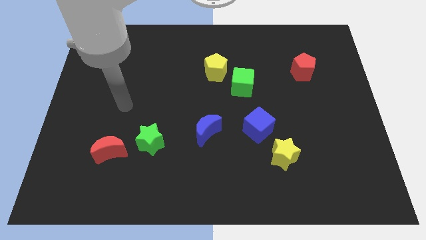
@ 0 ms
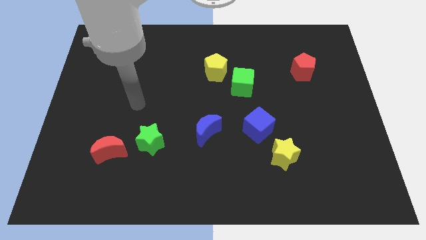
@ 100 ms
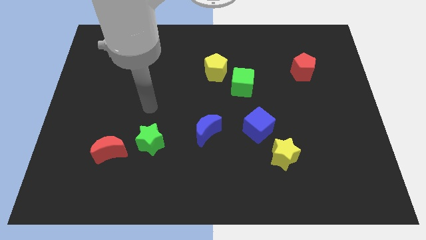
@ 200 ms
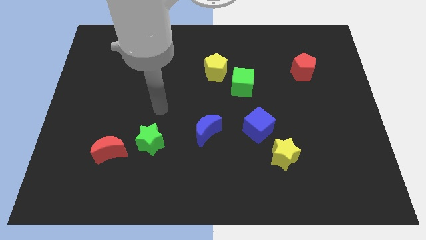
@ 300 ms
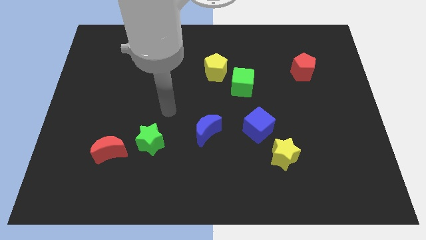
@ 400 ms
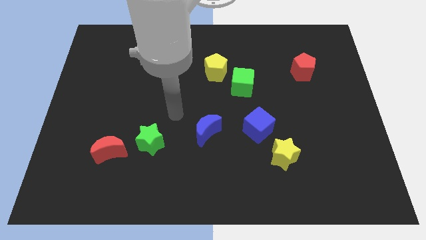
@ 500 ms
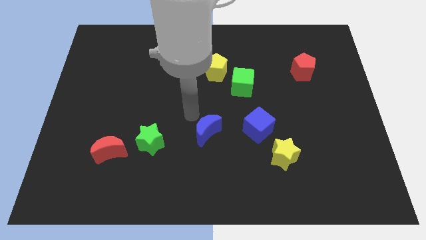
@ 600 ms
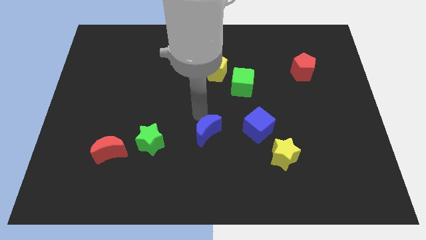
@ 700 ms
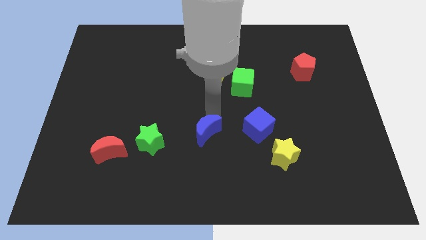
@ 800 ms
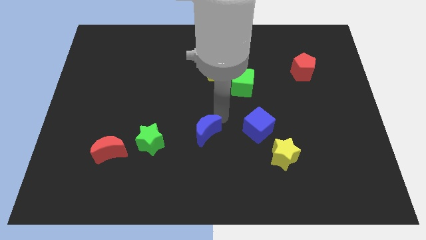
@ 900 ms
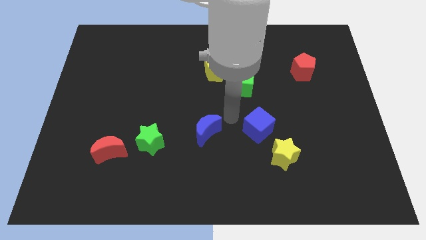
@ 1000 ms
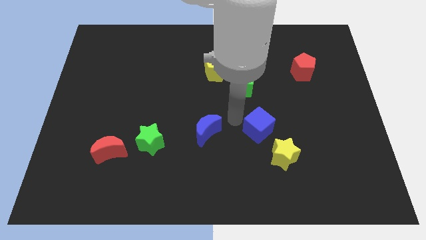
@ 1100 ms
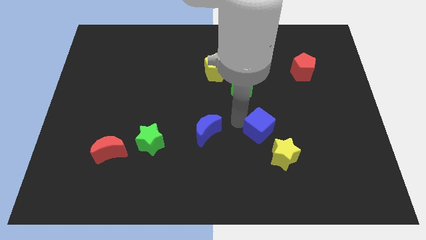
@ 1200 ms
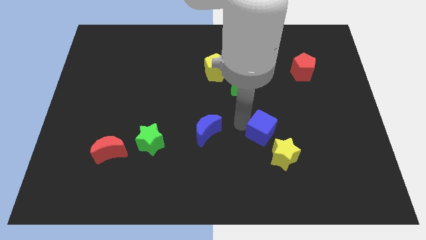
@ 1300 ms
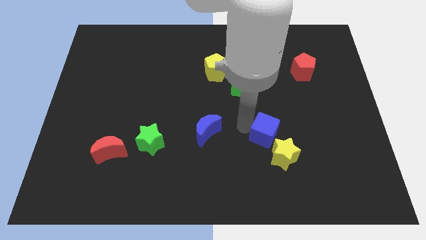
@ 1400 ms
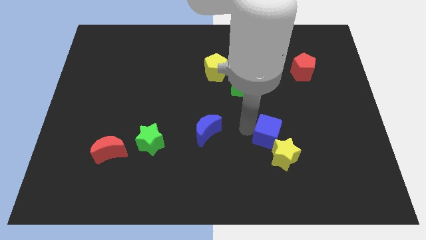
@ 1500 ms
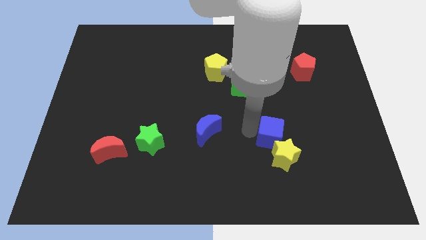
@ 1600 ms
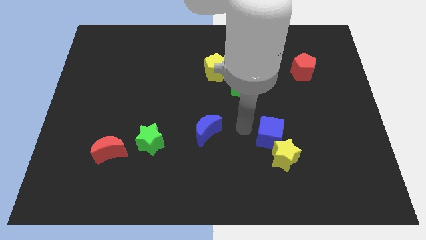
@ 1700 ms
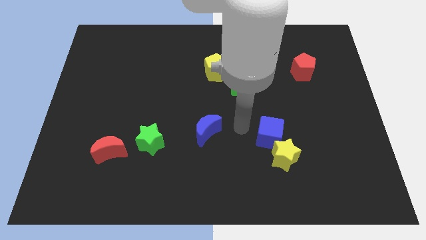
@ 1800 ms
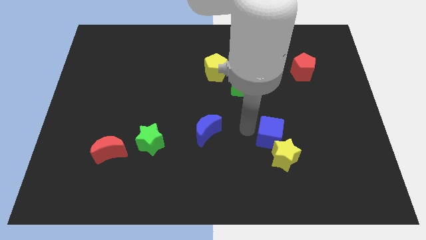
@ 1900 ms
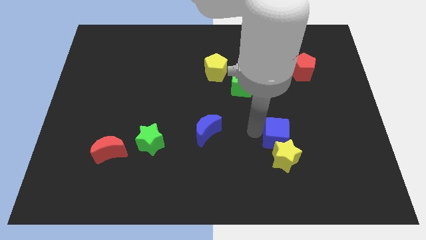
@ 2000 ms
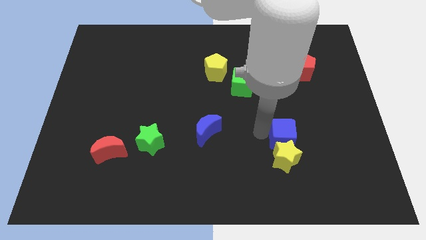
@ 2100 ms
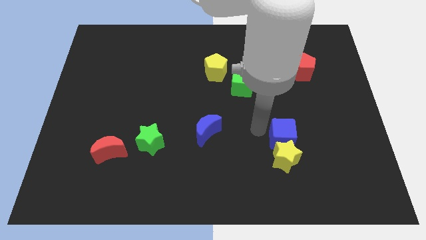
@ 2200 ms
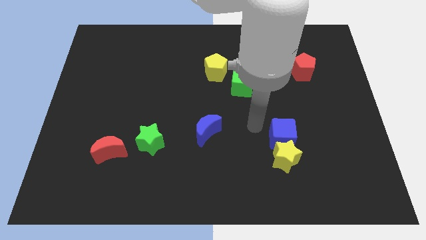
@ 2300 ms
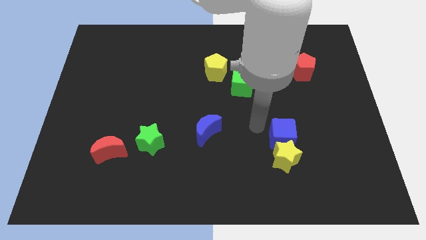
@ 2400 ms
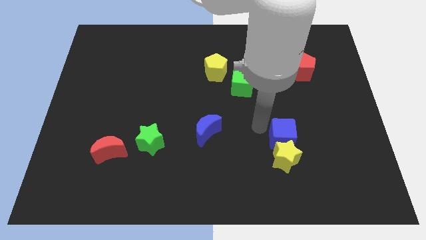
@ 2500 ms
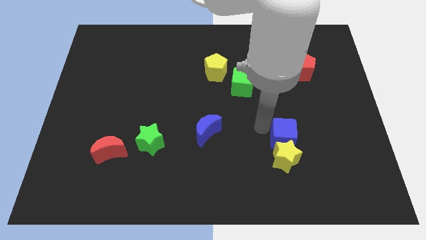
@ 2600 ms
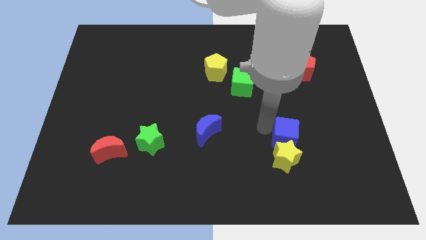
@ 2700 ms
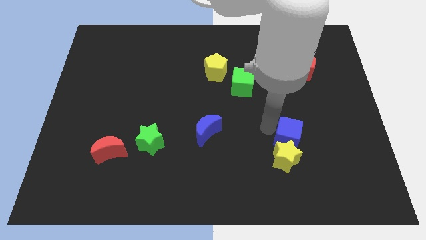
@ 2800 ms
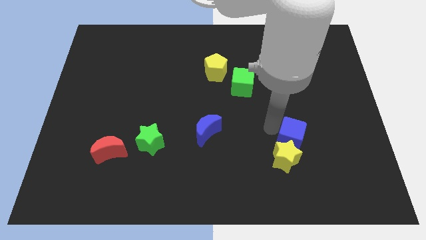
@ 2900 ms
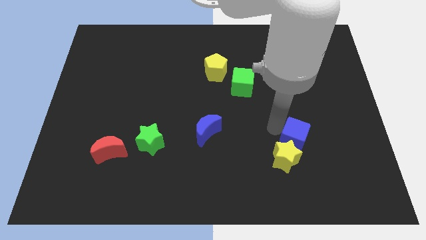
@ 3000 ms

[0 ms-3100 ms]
slide the blue cube a little down and to the right

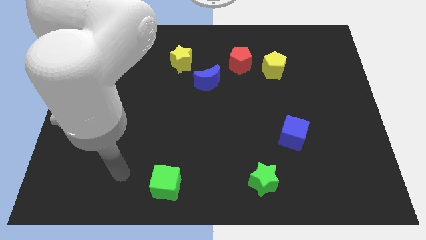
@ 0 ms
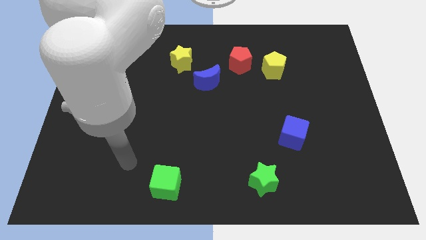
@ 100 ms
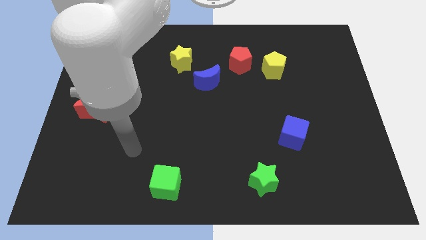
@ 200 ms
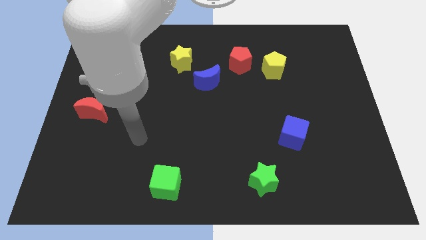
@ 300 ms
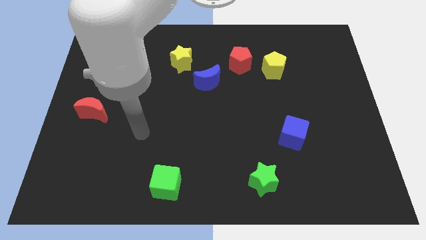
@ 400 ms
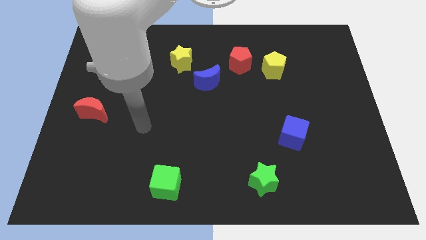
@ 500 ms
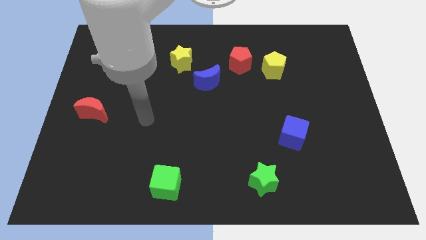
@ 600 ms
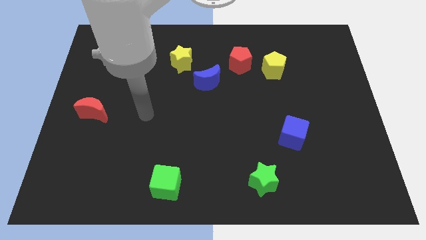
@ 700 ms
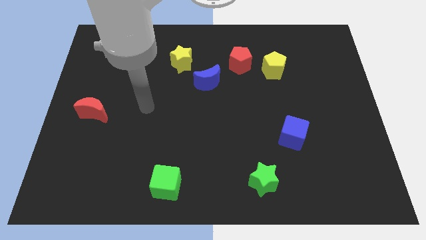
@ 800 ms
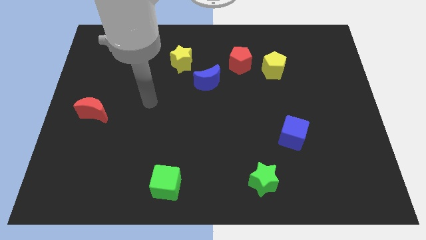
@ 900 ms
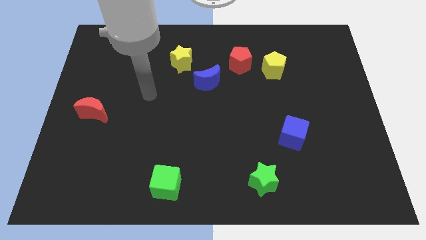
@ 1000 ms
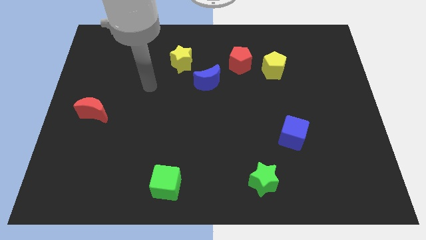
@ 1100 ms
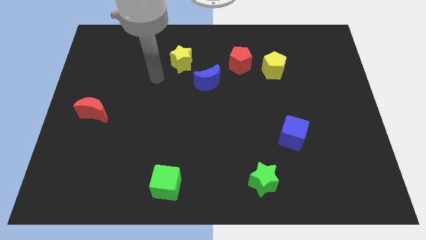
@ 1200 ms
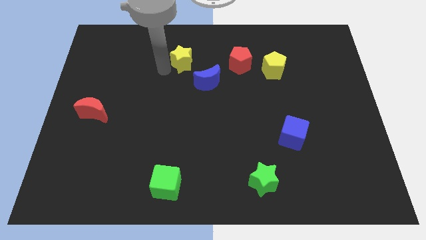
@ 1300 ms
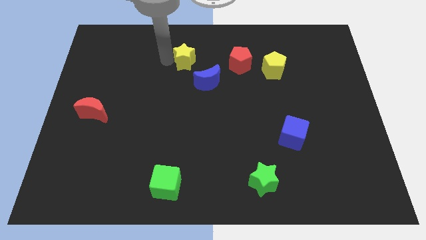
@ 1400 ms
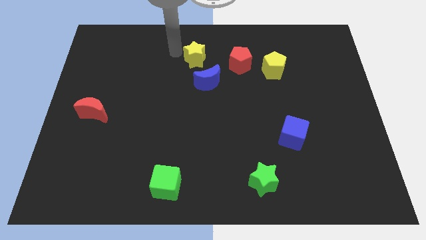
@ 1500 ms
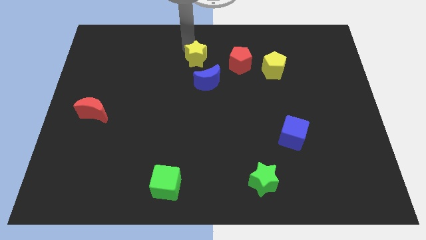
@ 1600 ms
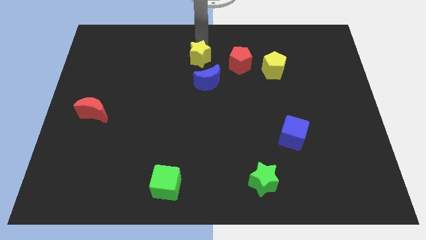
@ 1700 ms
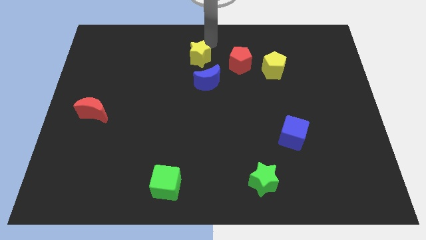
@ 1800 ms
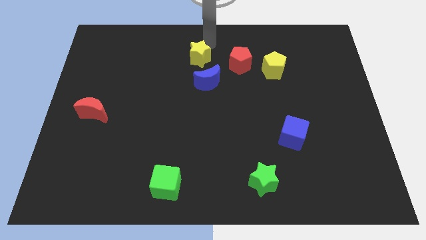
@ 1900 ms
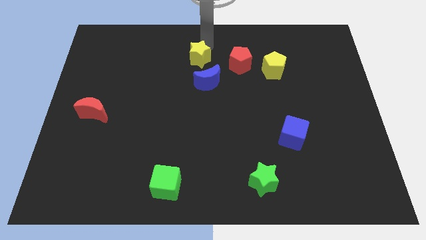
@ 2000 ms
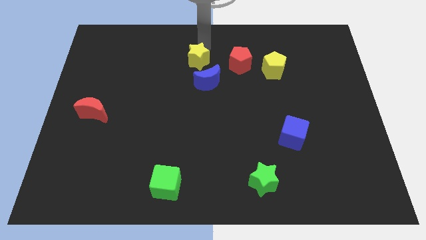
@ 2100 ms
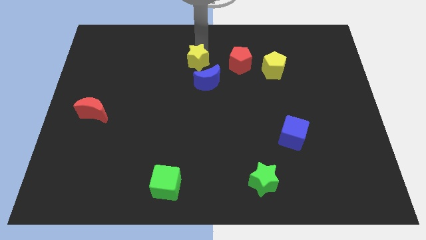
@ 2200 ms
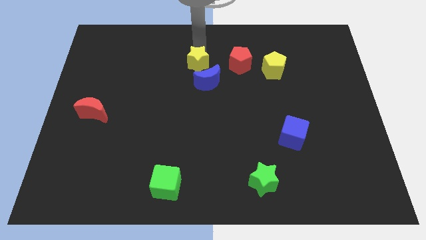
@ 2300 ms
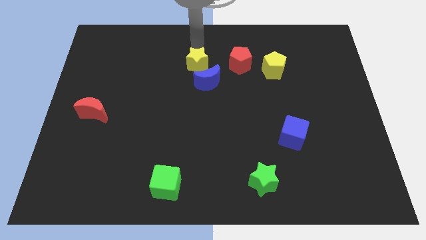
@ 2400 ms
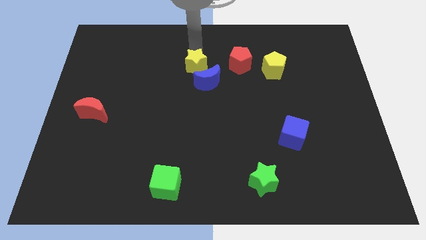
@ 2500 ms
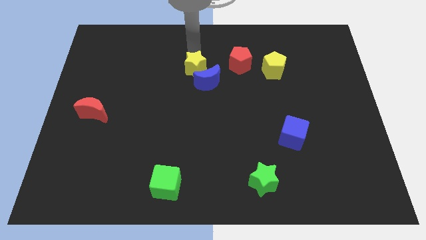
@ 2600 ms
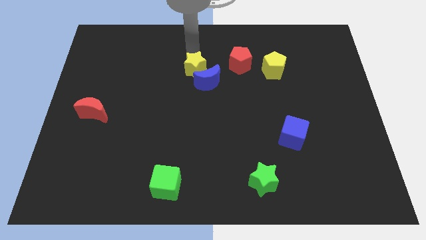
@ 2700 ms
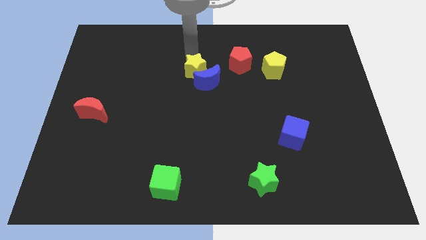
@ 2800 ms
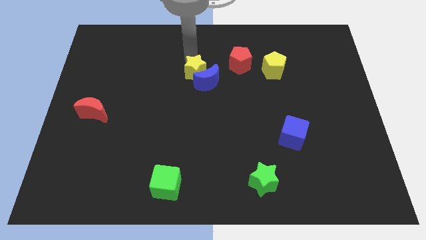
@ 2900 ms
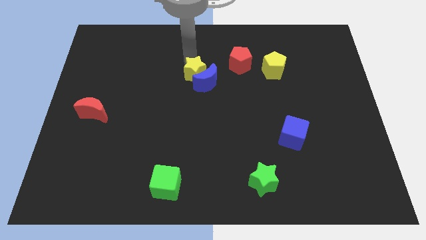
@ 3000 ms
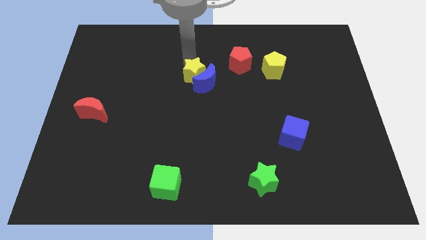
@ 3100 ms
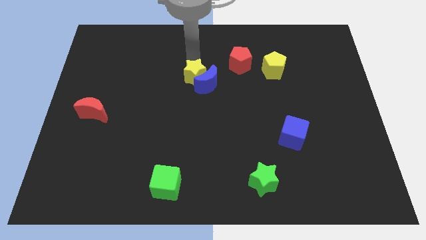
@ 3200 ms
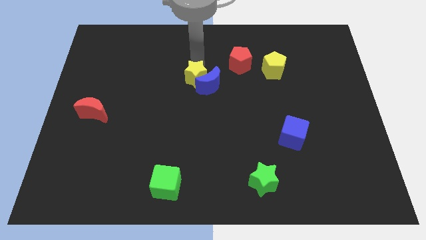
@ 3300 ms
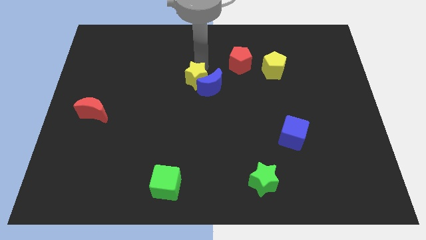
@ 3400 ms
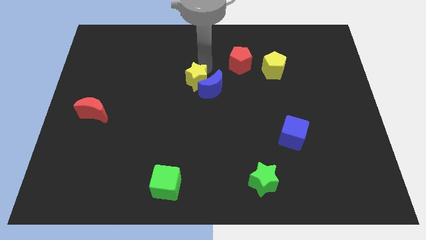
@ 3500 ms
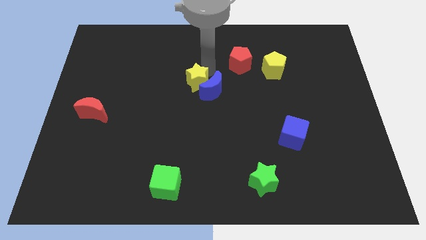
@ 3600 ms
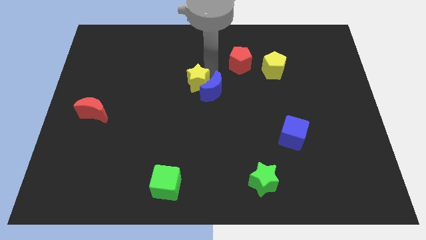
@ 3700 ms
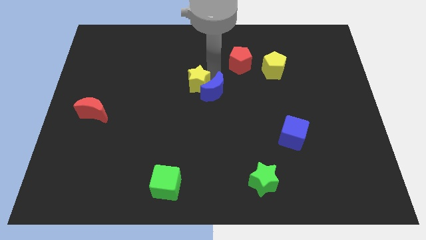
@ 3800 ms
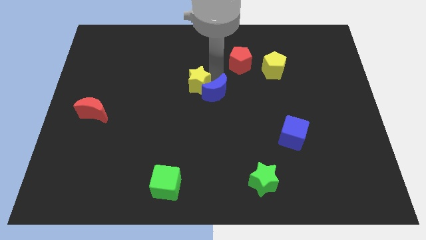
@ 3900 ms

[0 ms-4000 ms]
slide the yellow star a little down

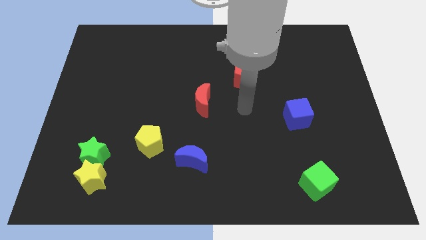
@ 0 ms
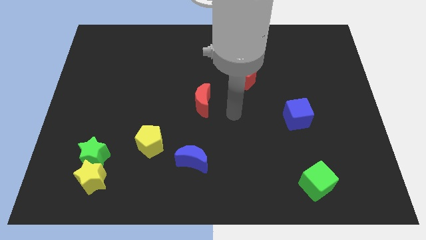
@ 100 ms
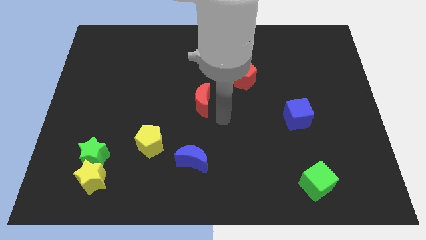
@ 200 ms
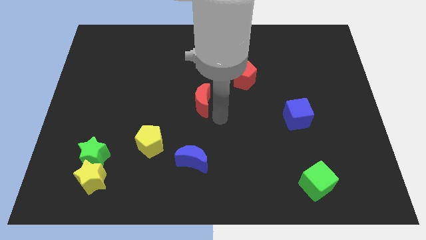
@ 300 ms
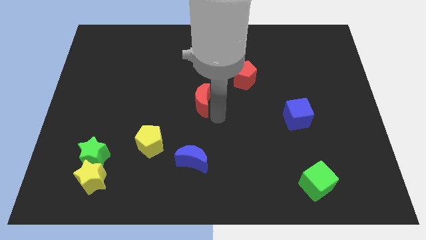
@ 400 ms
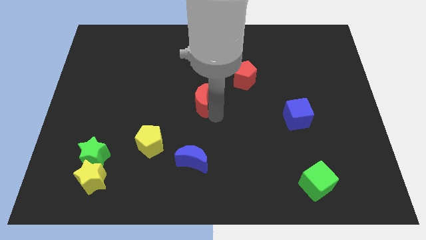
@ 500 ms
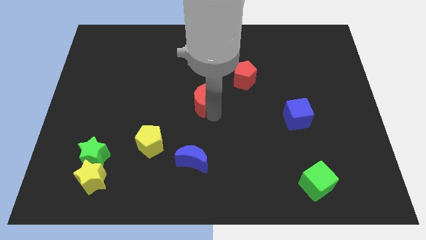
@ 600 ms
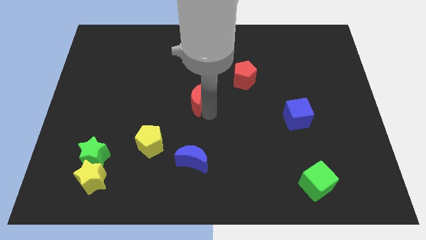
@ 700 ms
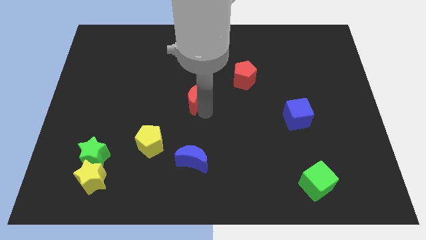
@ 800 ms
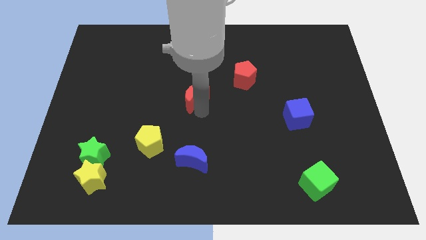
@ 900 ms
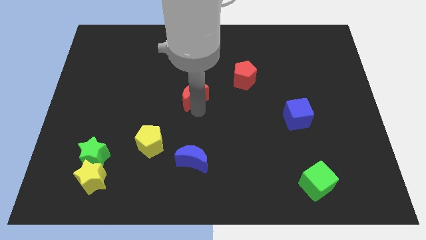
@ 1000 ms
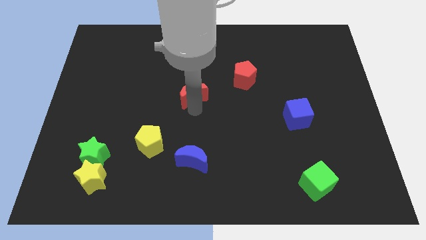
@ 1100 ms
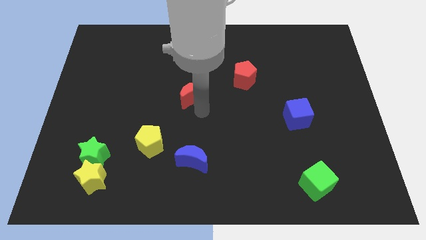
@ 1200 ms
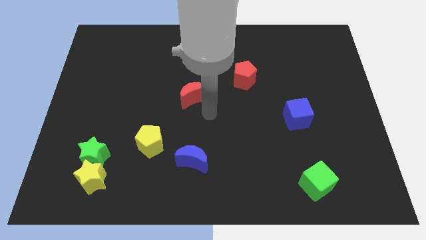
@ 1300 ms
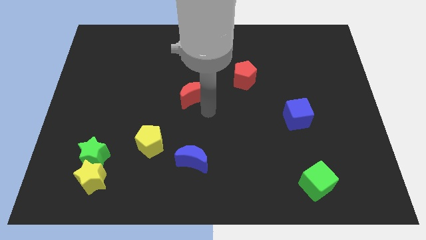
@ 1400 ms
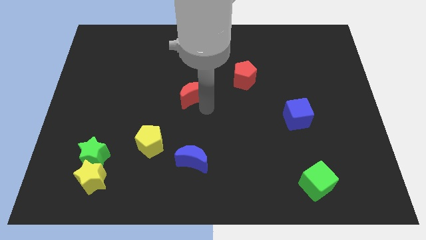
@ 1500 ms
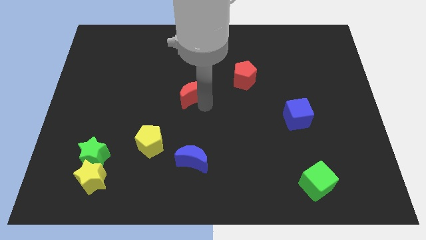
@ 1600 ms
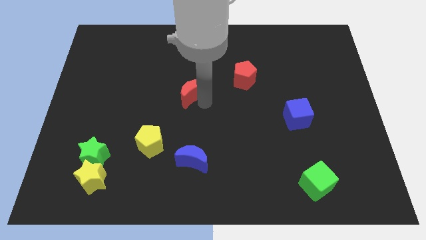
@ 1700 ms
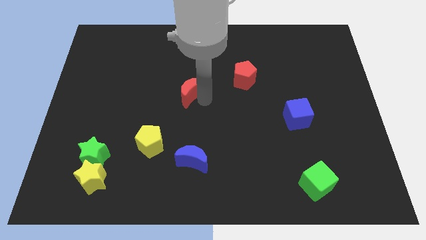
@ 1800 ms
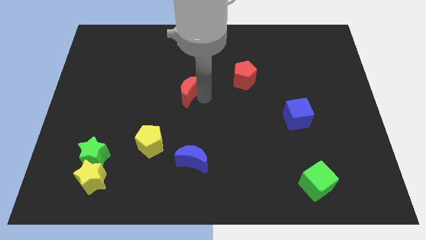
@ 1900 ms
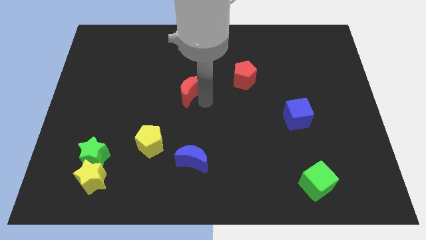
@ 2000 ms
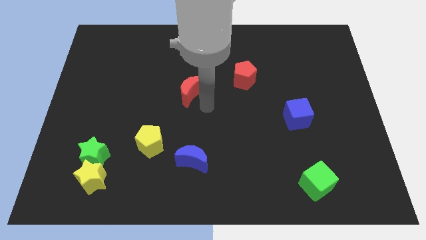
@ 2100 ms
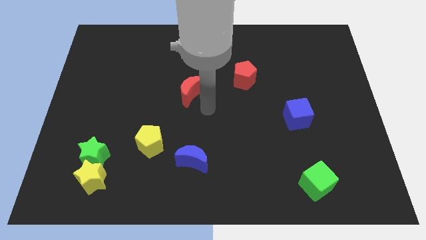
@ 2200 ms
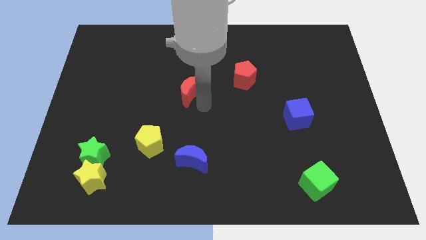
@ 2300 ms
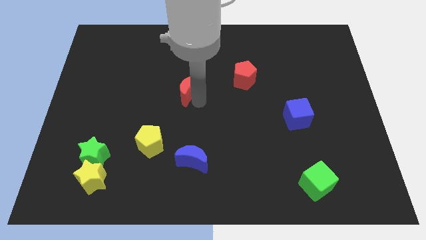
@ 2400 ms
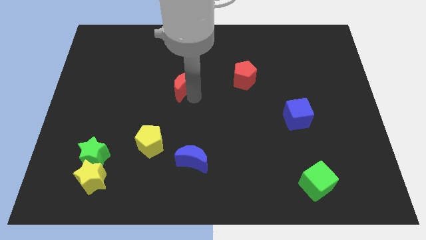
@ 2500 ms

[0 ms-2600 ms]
push the red moon somewhat upwards and left diagonally
